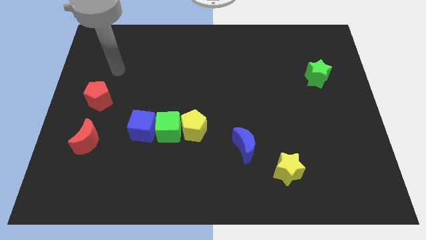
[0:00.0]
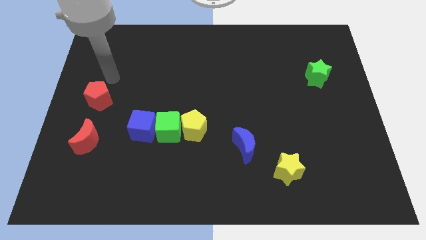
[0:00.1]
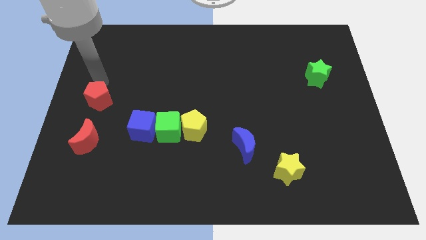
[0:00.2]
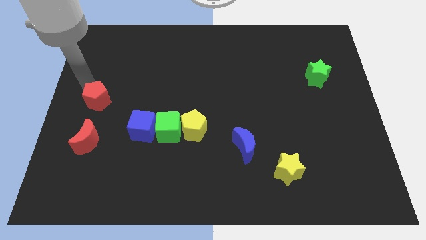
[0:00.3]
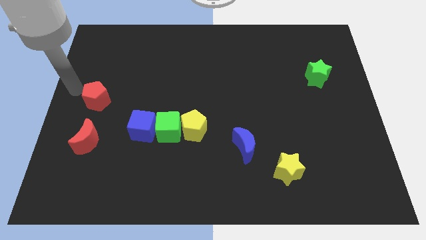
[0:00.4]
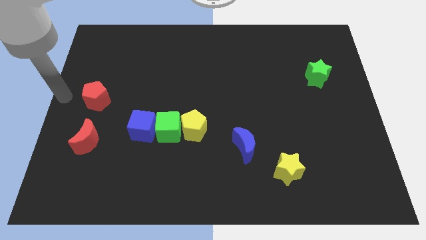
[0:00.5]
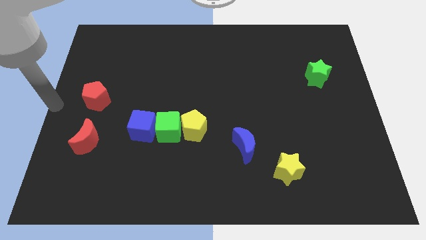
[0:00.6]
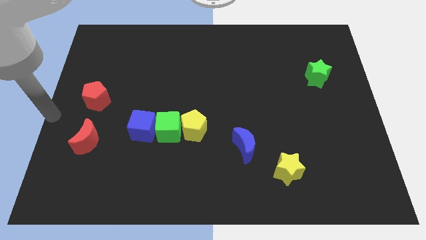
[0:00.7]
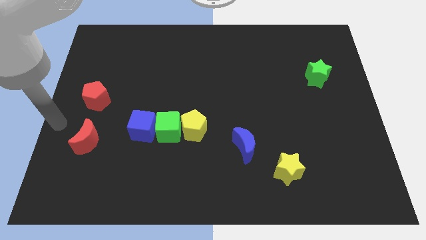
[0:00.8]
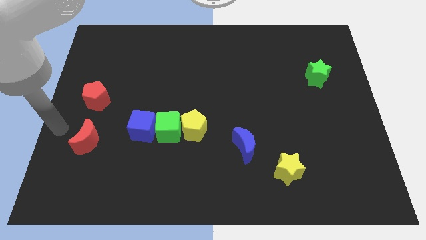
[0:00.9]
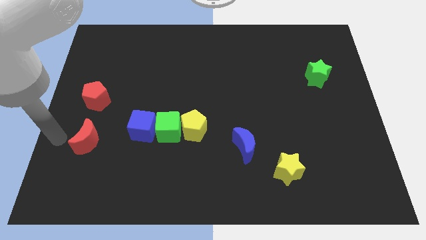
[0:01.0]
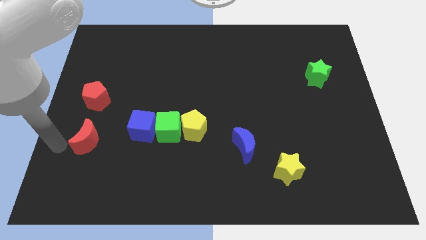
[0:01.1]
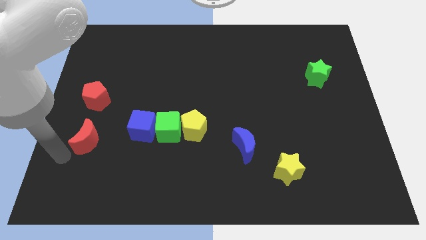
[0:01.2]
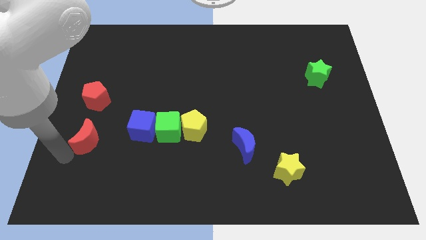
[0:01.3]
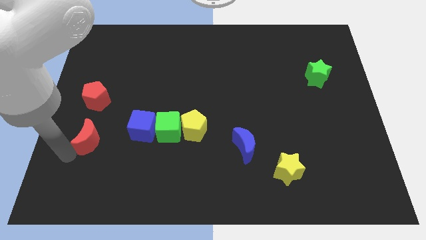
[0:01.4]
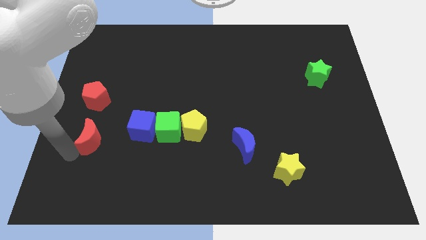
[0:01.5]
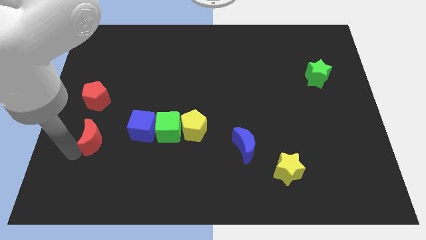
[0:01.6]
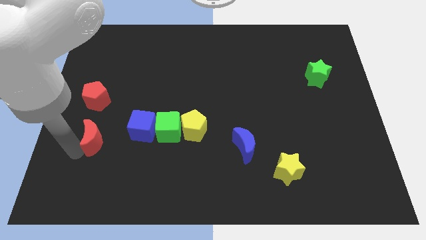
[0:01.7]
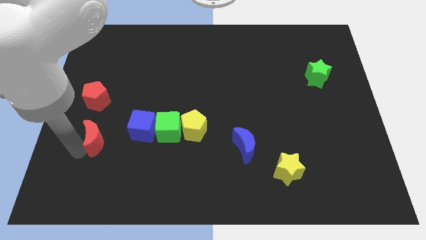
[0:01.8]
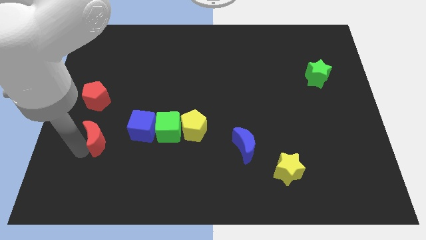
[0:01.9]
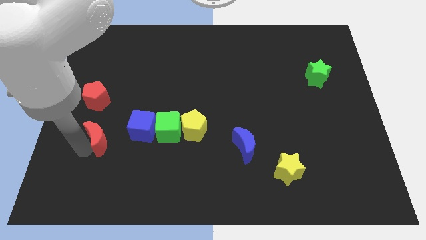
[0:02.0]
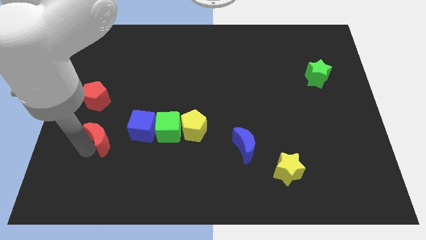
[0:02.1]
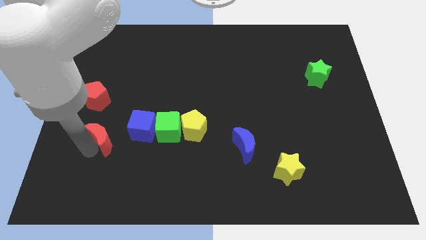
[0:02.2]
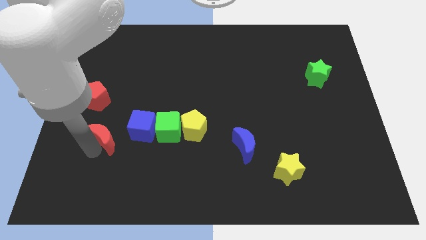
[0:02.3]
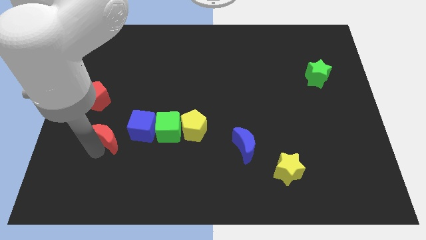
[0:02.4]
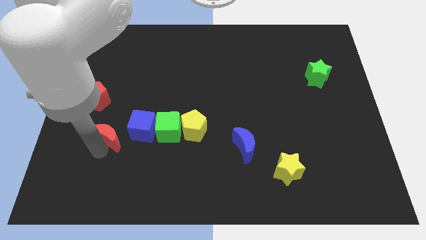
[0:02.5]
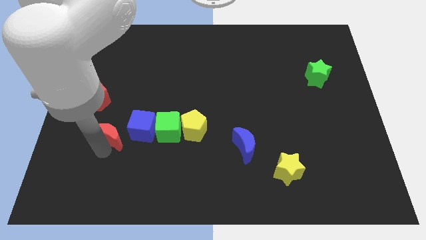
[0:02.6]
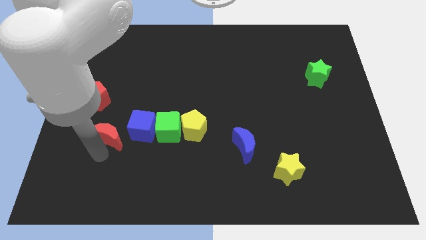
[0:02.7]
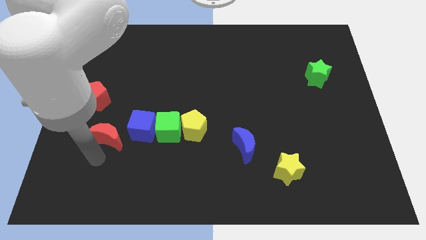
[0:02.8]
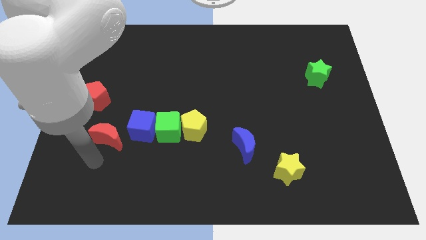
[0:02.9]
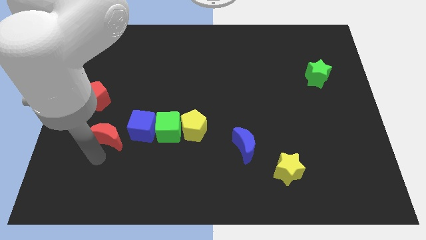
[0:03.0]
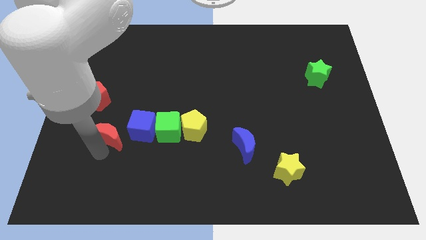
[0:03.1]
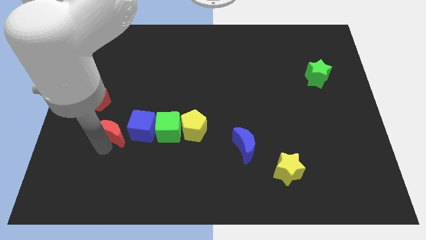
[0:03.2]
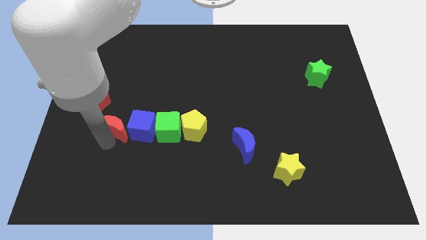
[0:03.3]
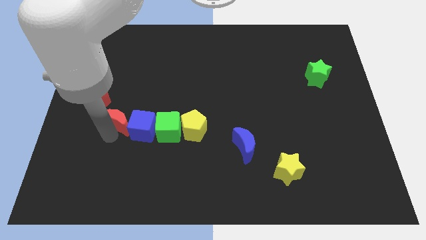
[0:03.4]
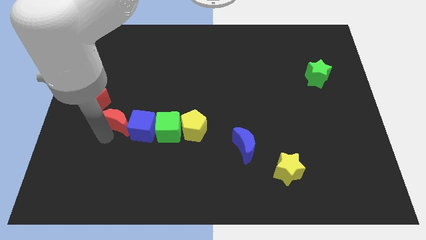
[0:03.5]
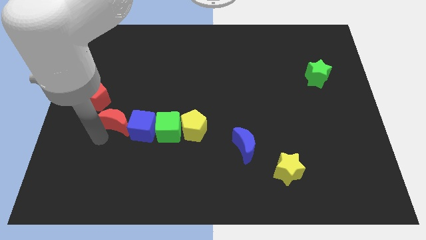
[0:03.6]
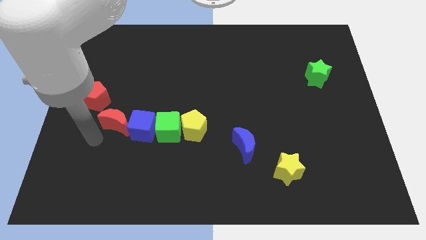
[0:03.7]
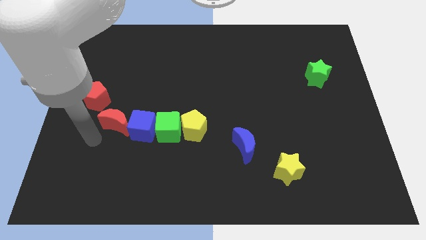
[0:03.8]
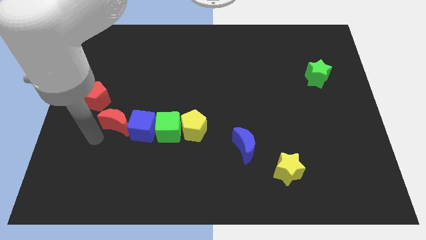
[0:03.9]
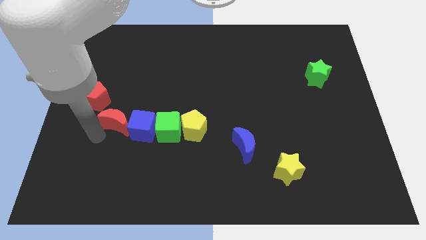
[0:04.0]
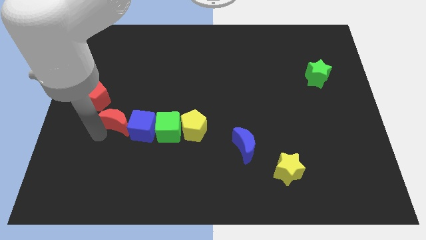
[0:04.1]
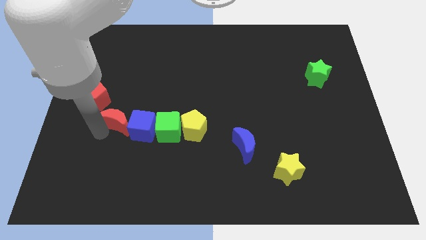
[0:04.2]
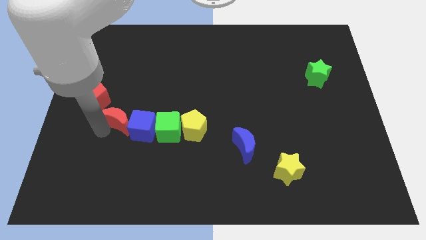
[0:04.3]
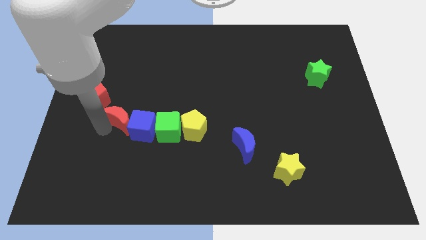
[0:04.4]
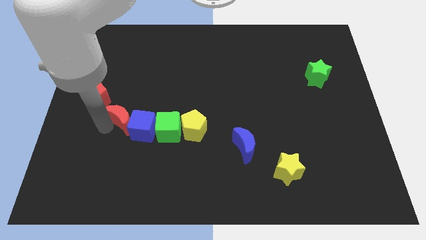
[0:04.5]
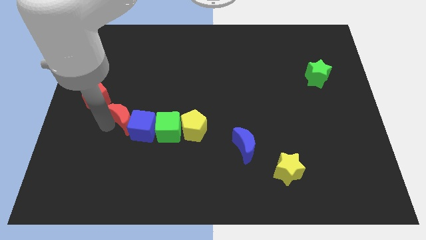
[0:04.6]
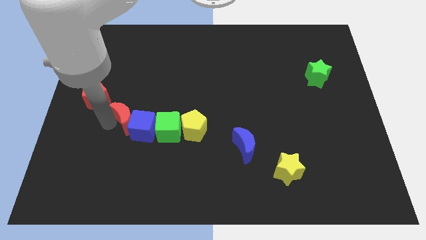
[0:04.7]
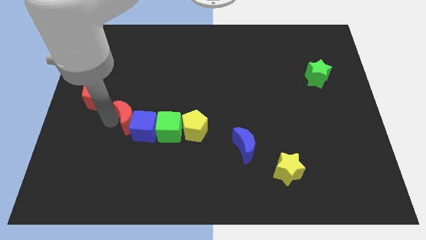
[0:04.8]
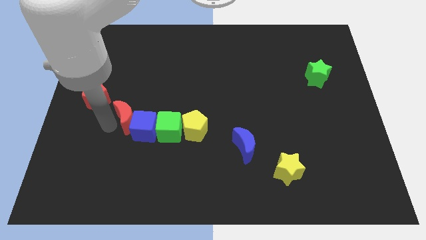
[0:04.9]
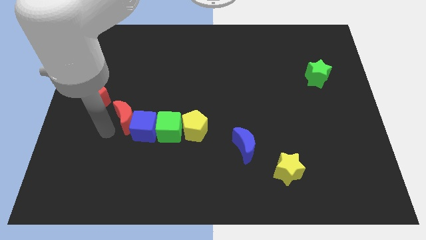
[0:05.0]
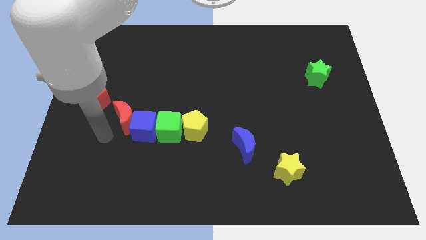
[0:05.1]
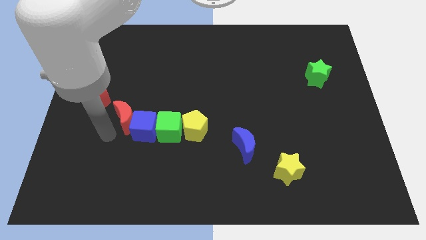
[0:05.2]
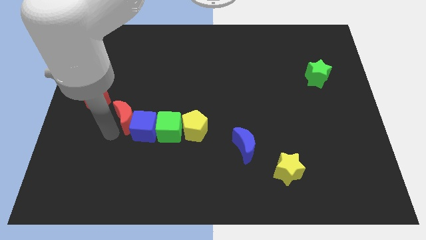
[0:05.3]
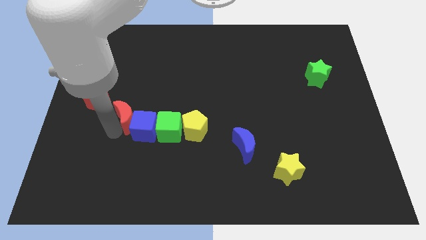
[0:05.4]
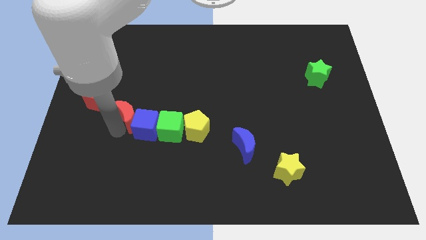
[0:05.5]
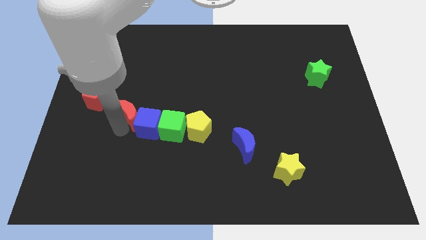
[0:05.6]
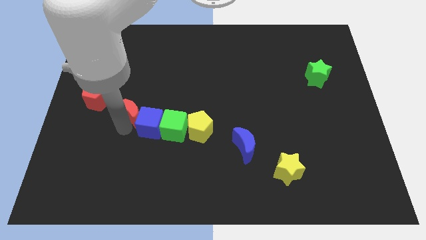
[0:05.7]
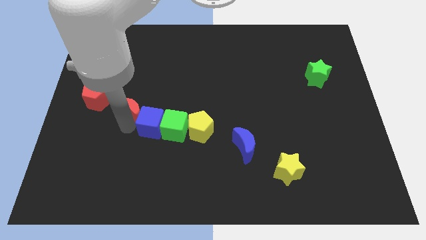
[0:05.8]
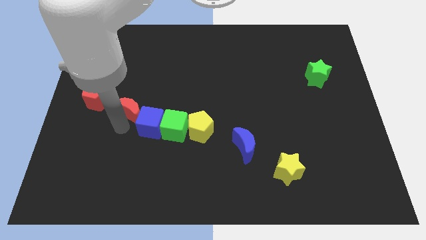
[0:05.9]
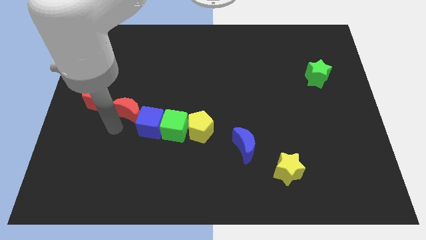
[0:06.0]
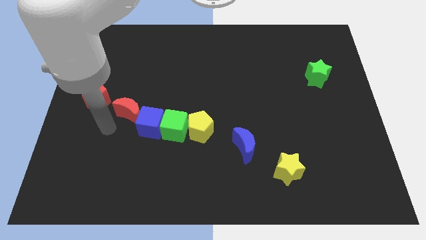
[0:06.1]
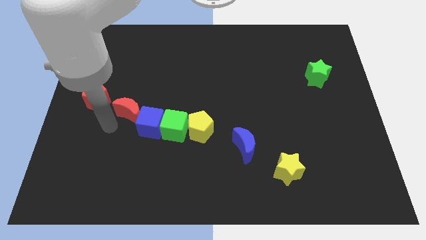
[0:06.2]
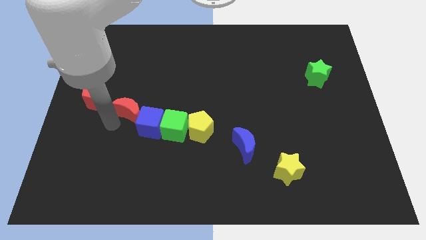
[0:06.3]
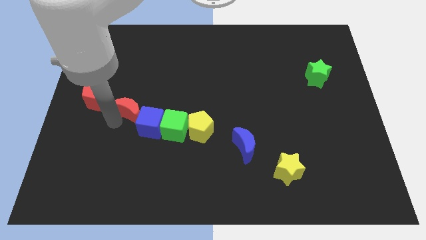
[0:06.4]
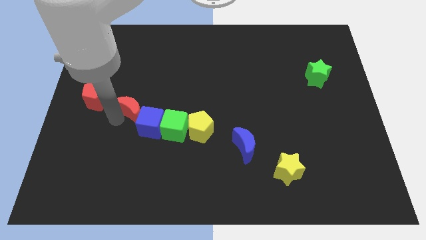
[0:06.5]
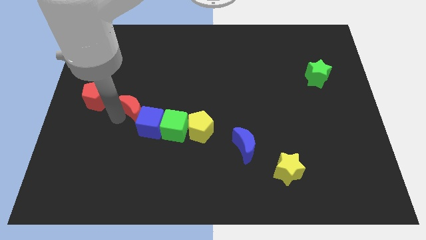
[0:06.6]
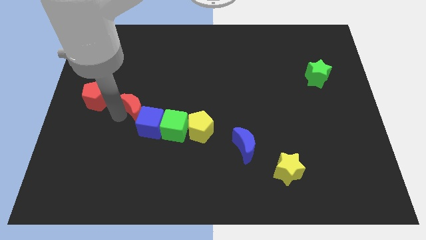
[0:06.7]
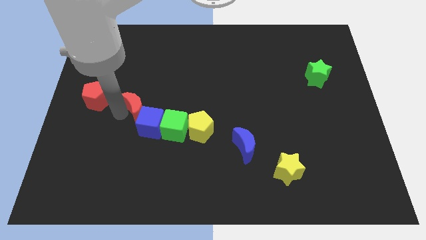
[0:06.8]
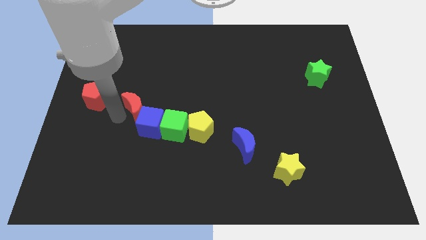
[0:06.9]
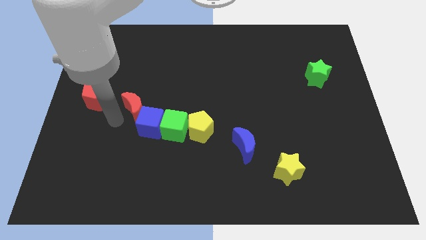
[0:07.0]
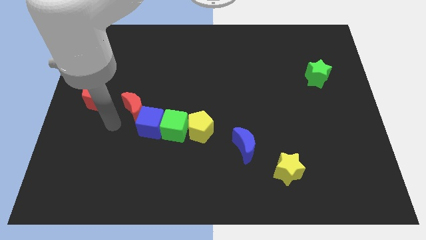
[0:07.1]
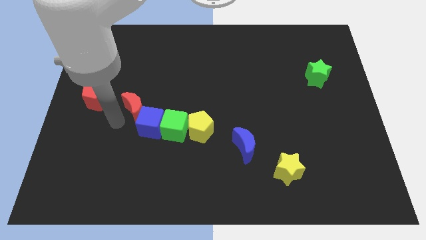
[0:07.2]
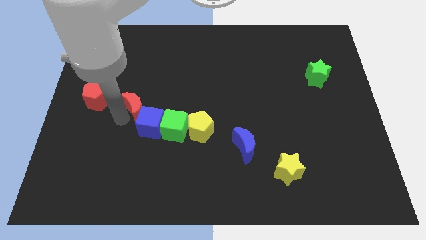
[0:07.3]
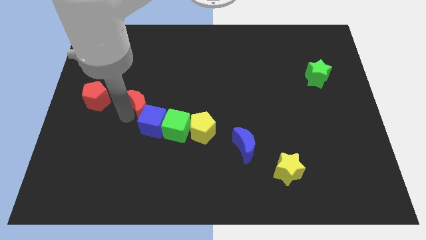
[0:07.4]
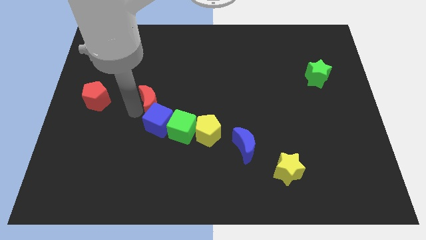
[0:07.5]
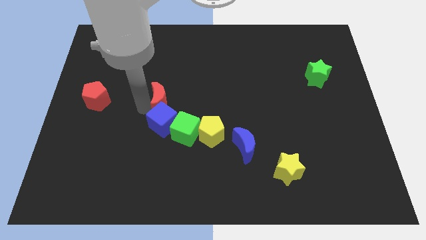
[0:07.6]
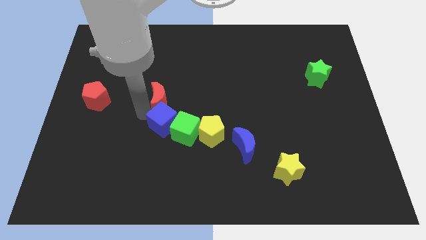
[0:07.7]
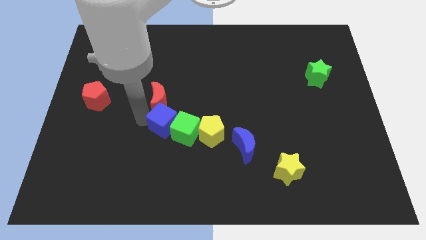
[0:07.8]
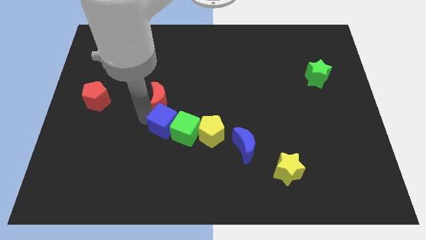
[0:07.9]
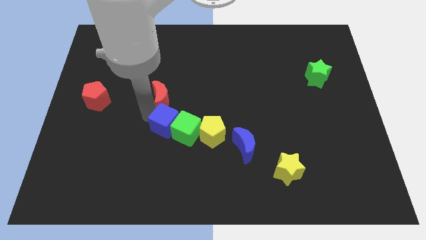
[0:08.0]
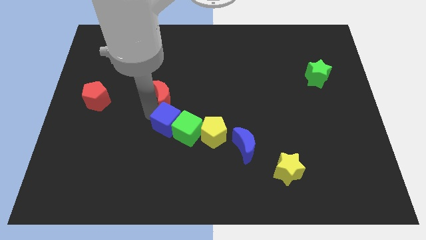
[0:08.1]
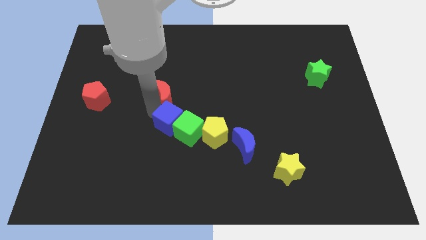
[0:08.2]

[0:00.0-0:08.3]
push the red moon up and to the right
